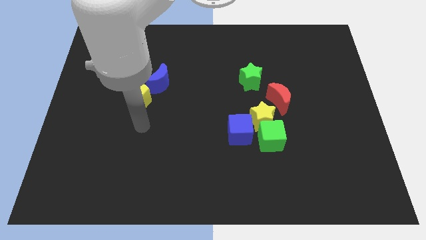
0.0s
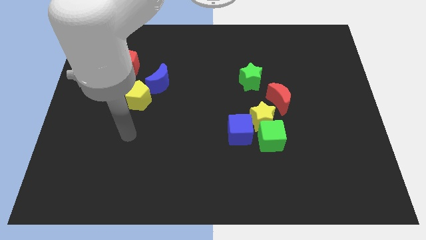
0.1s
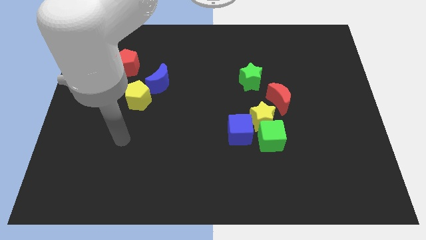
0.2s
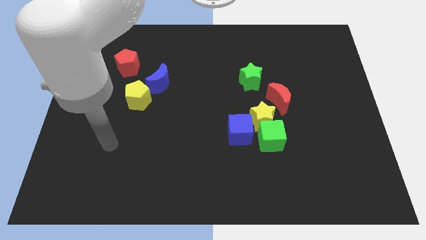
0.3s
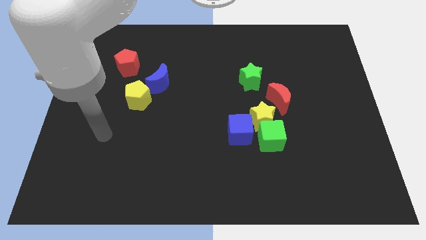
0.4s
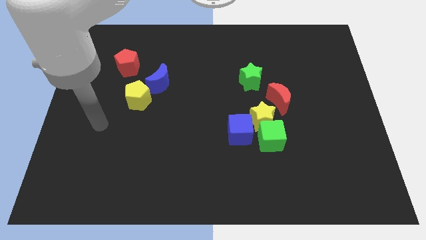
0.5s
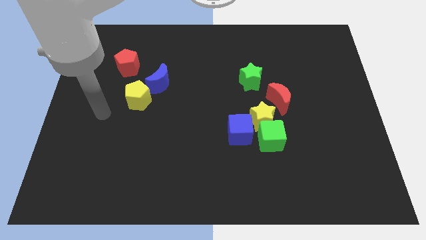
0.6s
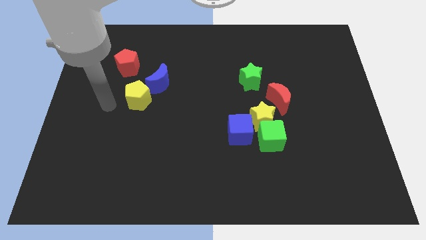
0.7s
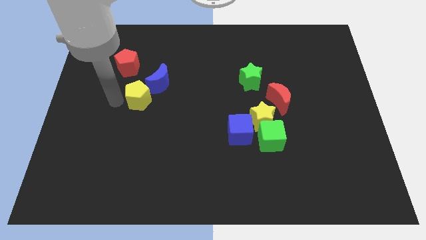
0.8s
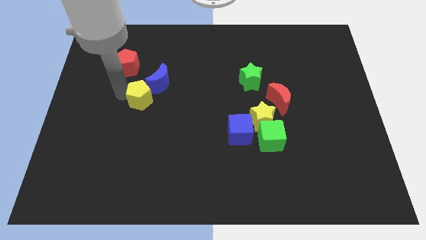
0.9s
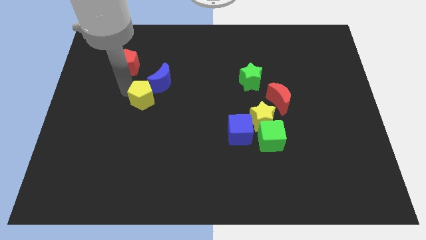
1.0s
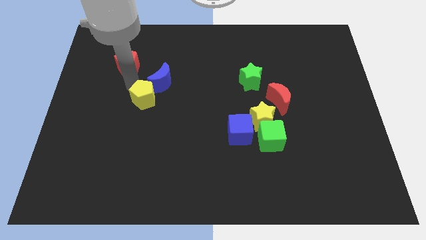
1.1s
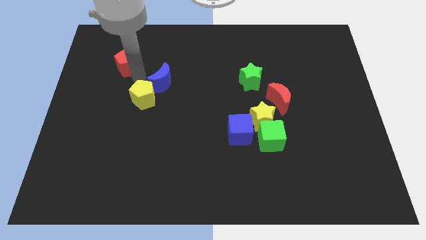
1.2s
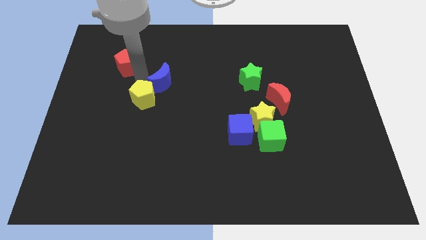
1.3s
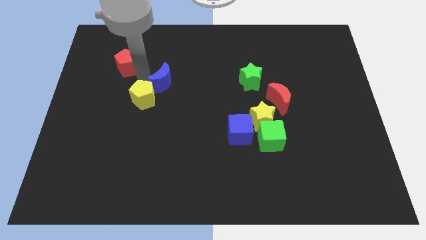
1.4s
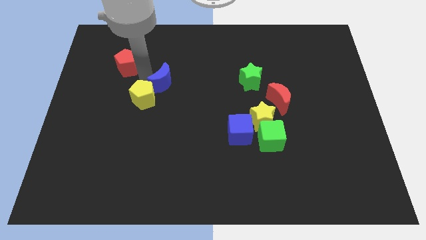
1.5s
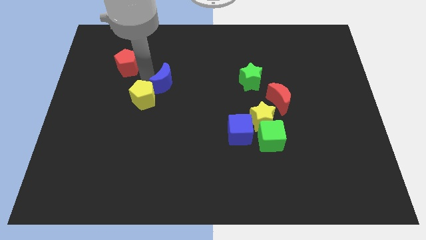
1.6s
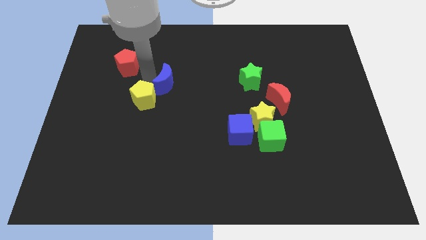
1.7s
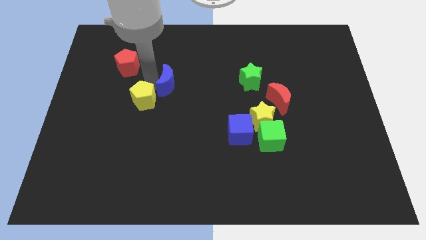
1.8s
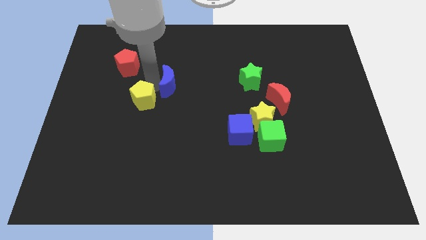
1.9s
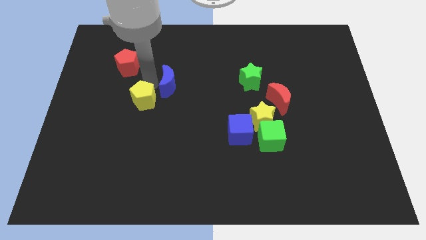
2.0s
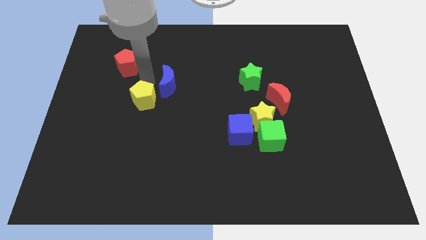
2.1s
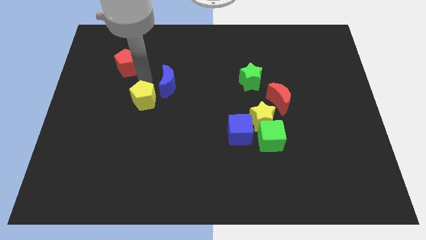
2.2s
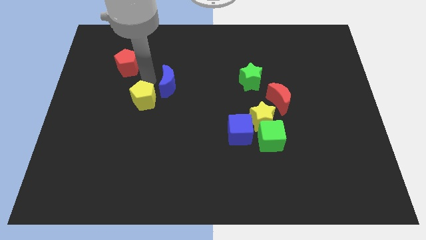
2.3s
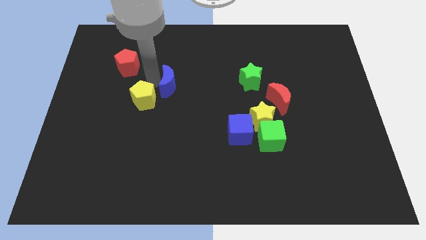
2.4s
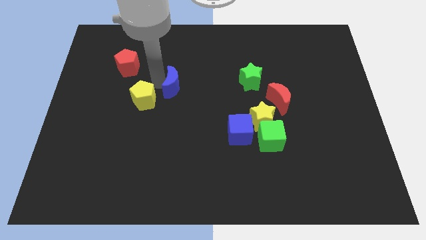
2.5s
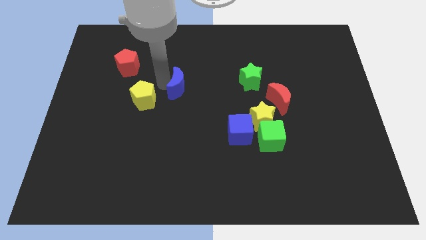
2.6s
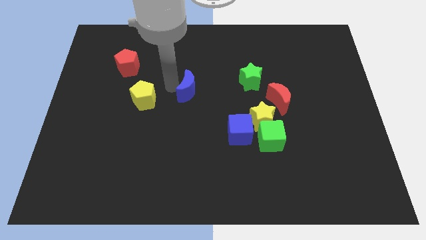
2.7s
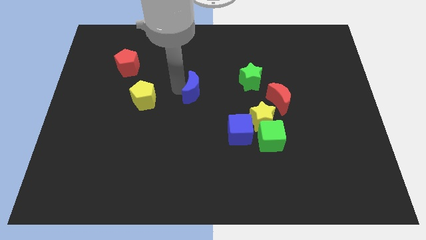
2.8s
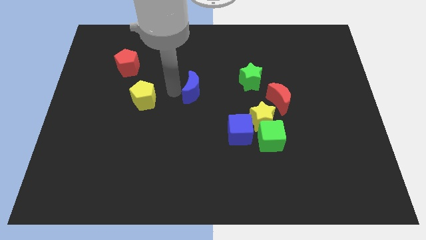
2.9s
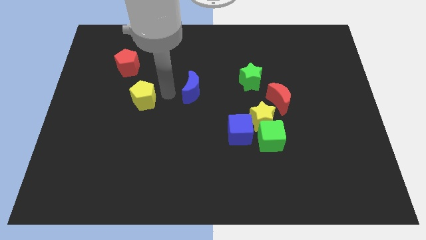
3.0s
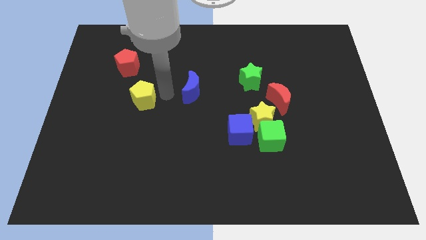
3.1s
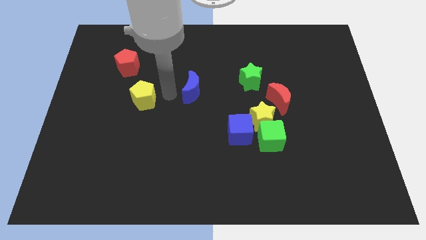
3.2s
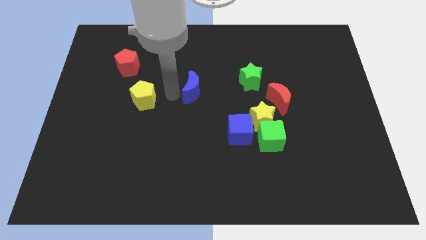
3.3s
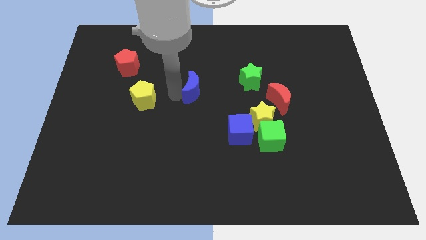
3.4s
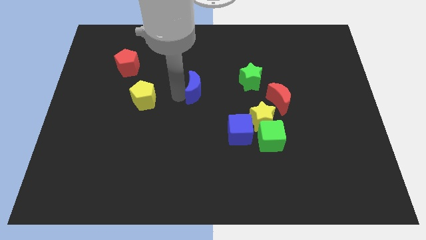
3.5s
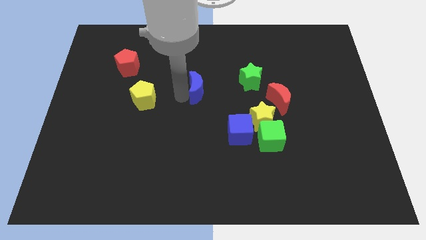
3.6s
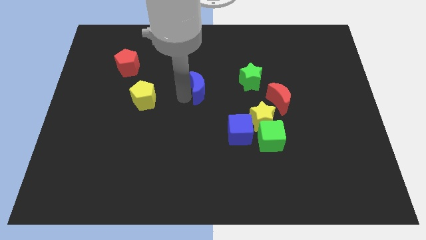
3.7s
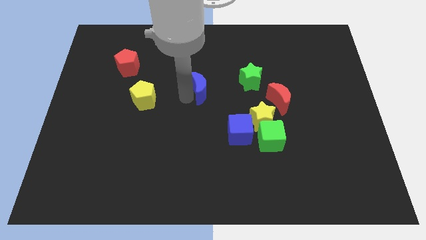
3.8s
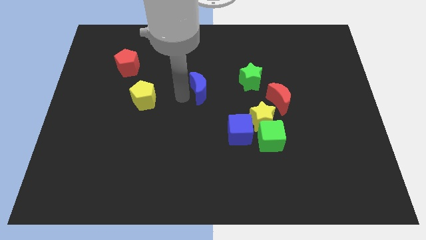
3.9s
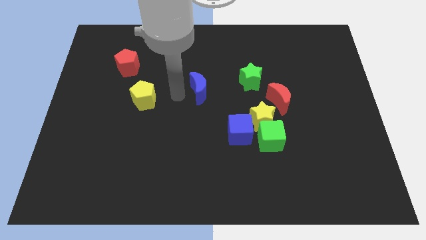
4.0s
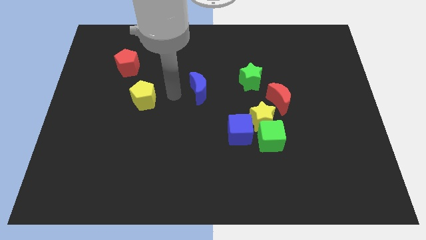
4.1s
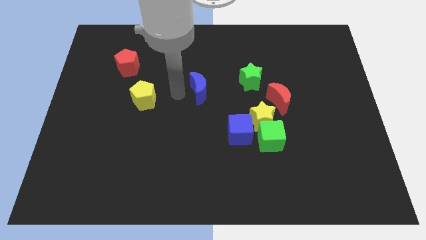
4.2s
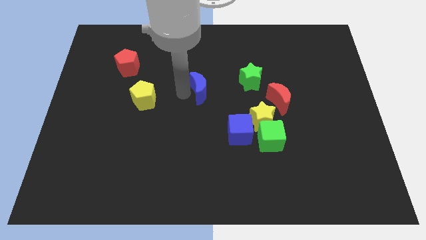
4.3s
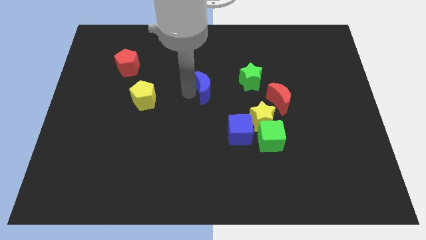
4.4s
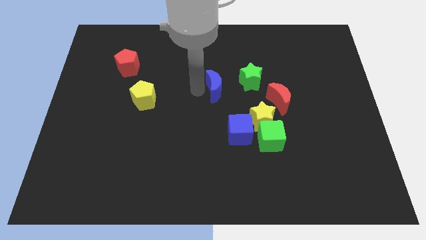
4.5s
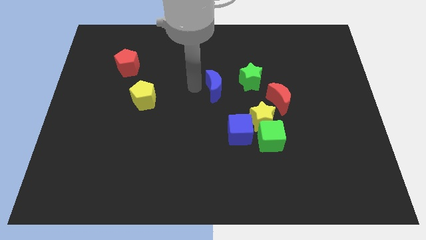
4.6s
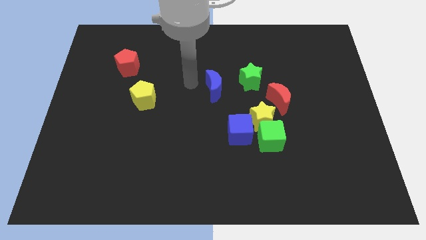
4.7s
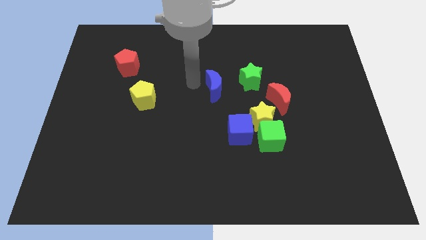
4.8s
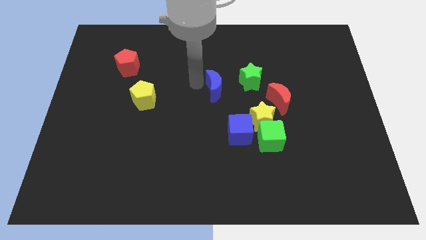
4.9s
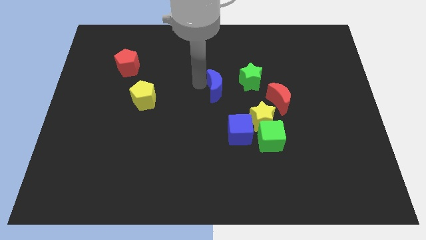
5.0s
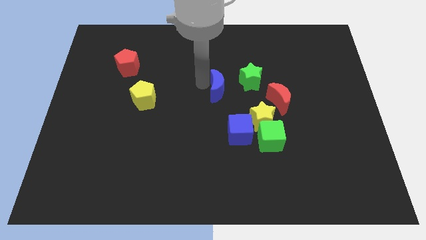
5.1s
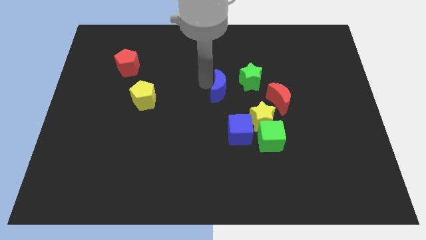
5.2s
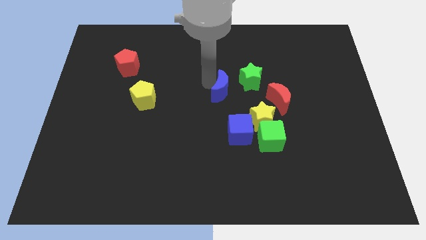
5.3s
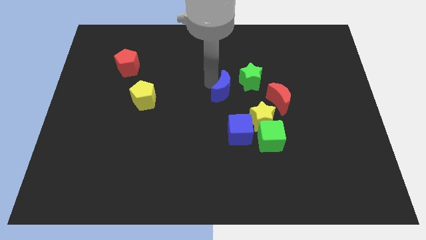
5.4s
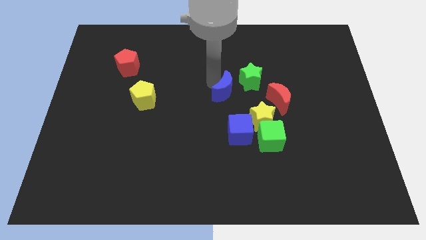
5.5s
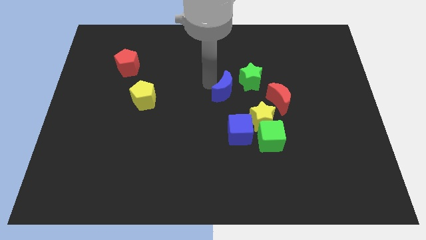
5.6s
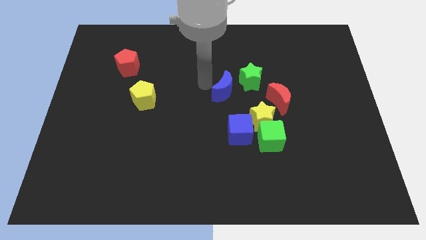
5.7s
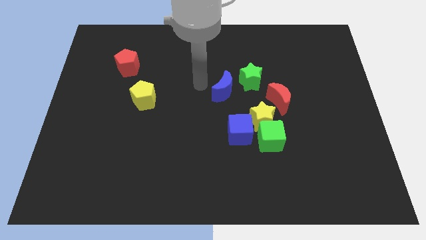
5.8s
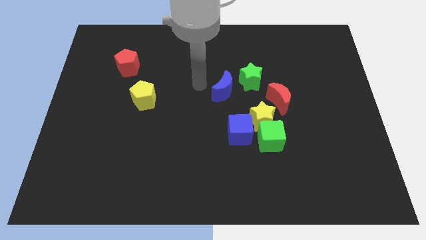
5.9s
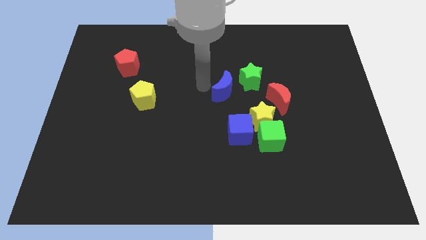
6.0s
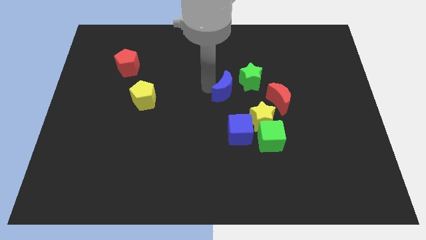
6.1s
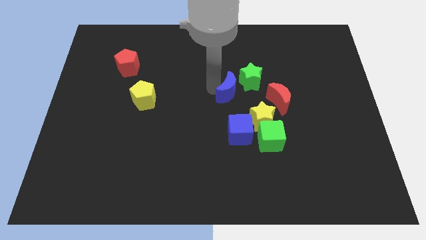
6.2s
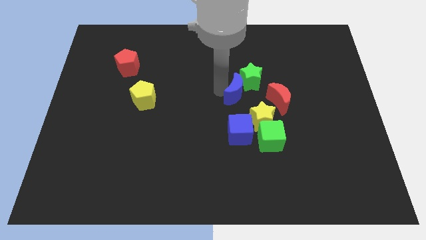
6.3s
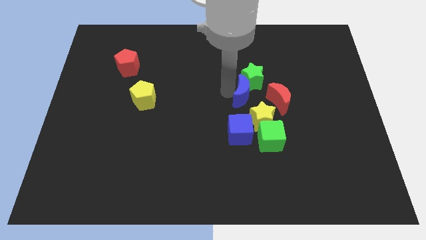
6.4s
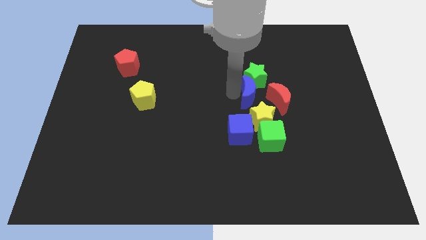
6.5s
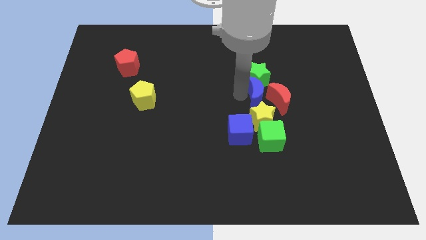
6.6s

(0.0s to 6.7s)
push the blue moon close to the red moon
